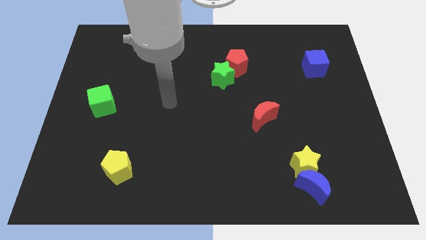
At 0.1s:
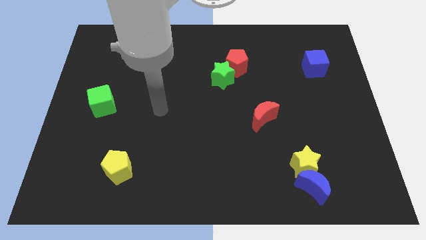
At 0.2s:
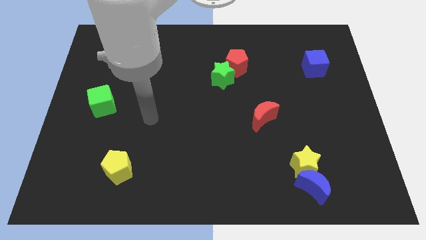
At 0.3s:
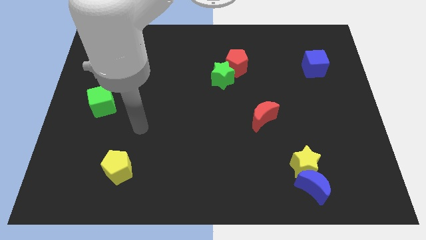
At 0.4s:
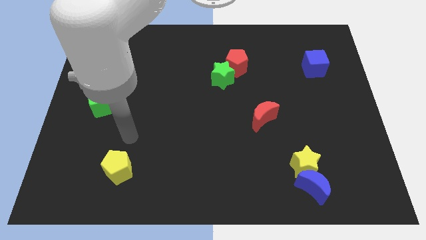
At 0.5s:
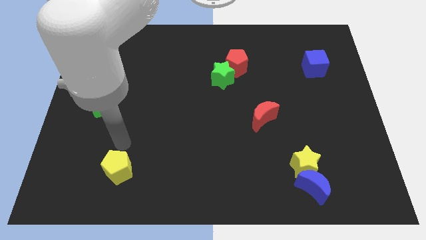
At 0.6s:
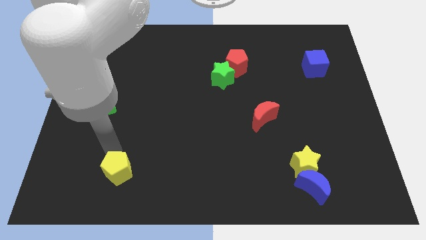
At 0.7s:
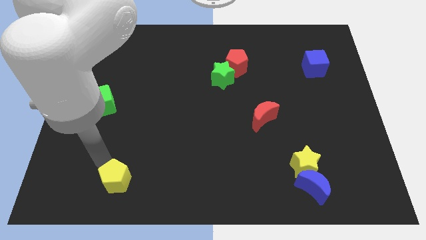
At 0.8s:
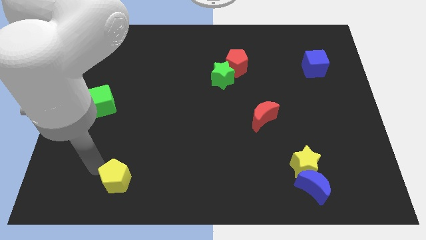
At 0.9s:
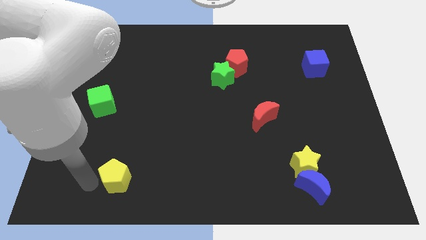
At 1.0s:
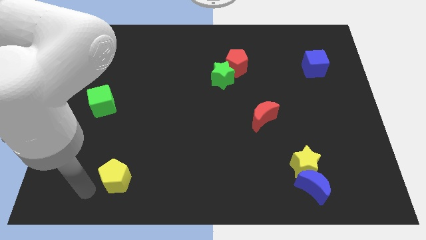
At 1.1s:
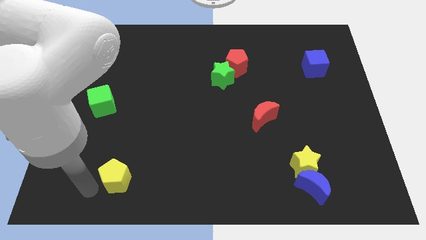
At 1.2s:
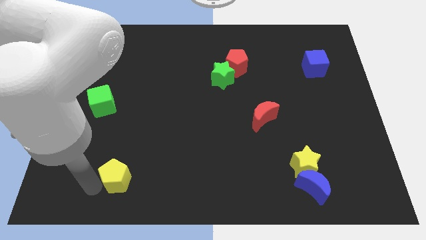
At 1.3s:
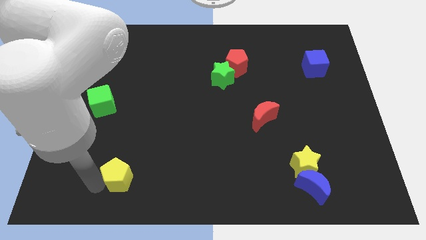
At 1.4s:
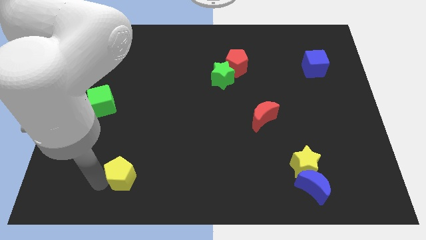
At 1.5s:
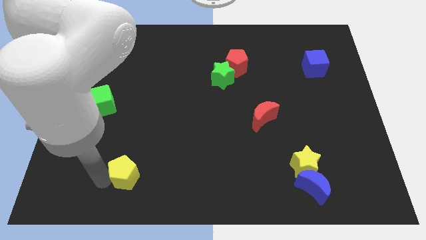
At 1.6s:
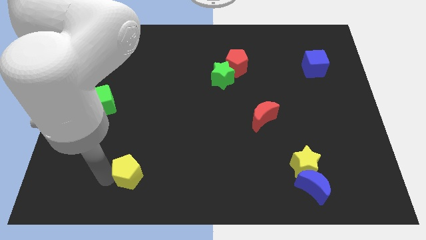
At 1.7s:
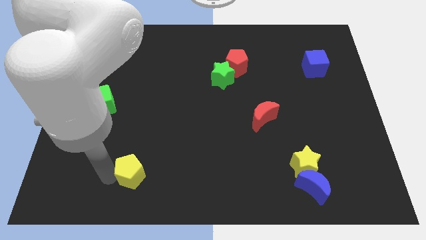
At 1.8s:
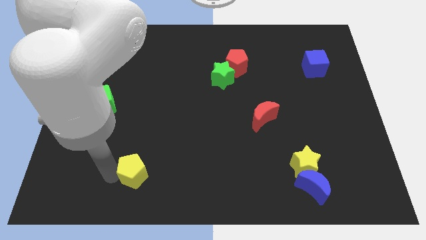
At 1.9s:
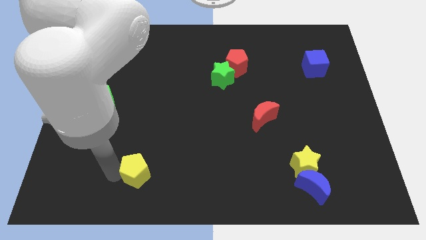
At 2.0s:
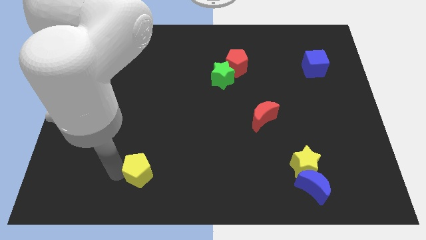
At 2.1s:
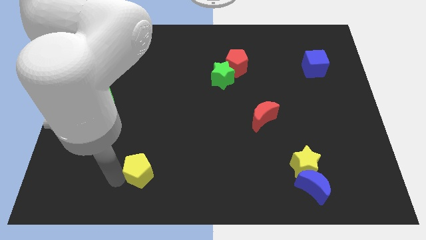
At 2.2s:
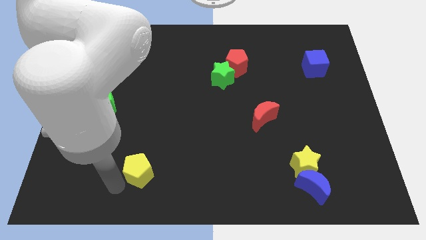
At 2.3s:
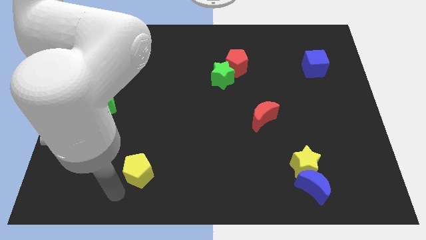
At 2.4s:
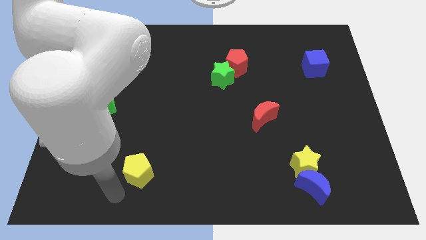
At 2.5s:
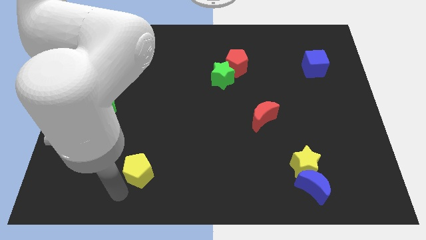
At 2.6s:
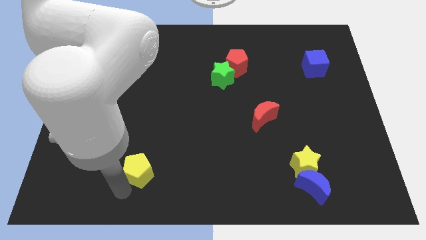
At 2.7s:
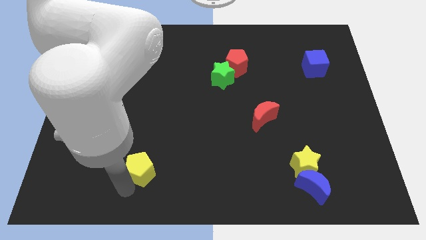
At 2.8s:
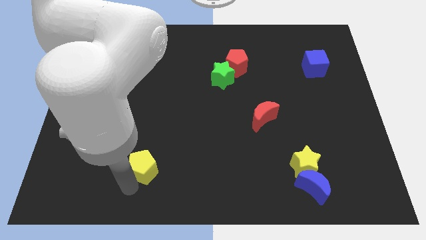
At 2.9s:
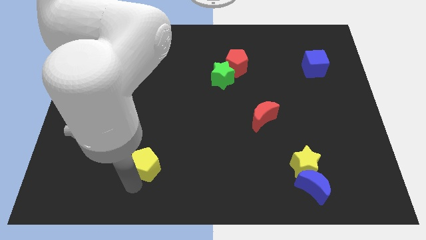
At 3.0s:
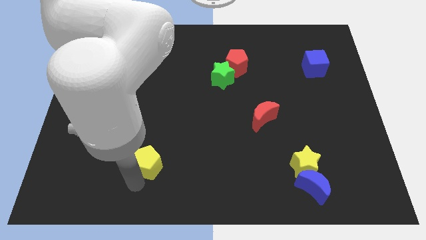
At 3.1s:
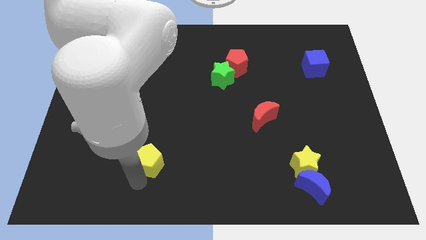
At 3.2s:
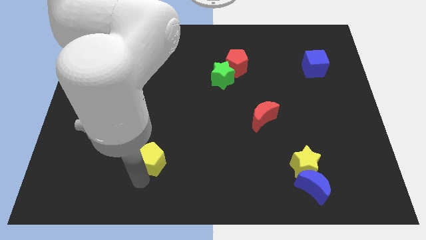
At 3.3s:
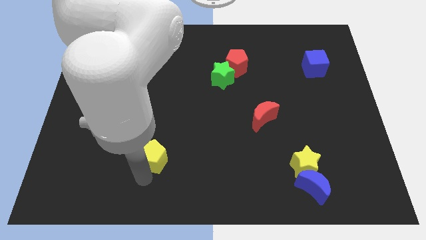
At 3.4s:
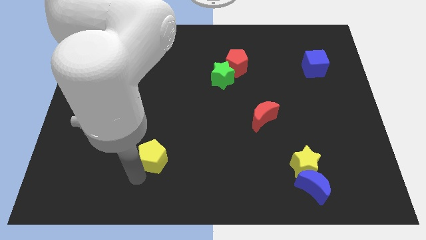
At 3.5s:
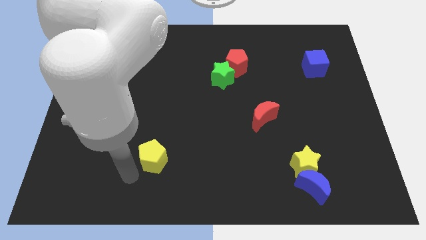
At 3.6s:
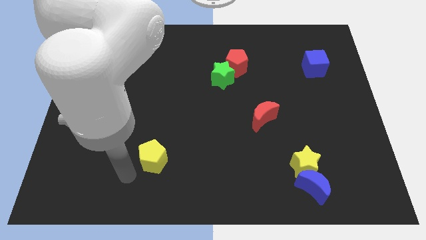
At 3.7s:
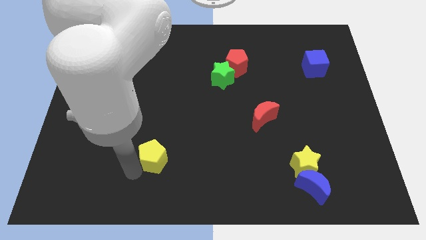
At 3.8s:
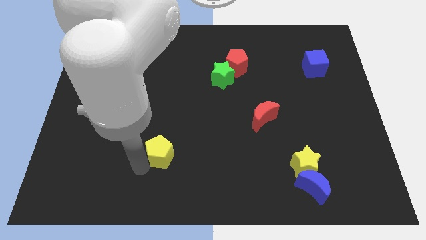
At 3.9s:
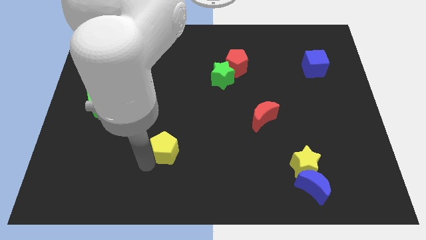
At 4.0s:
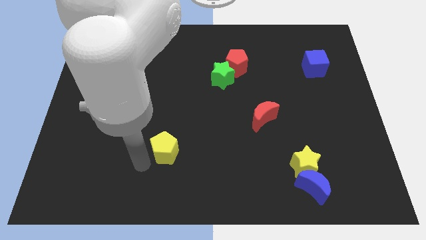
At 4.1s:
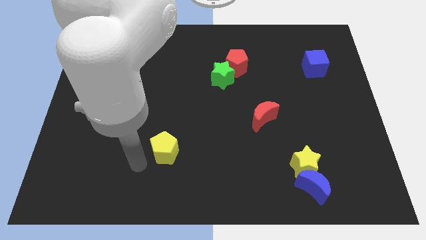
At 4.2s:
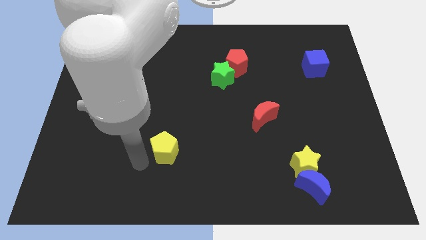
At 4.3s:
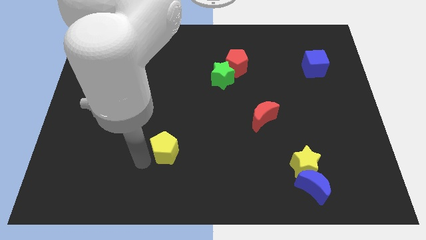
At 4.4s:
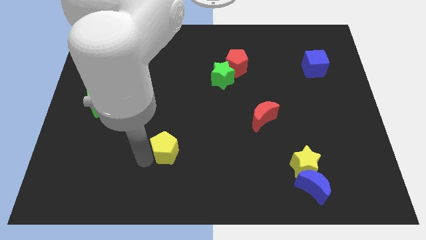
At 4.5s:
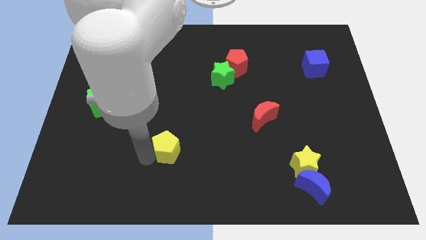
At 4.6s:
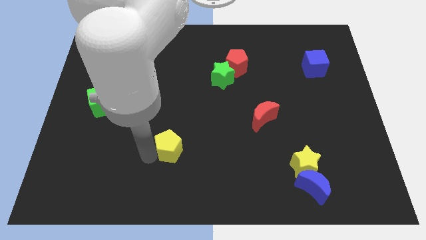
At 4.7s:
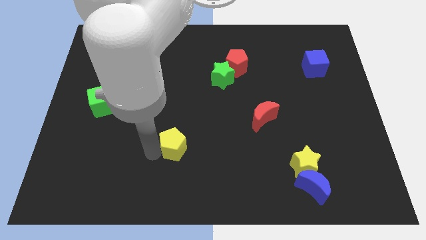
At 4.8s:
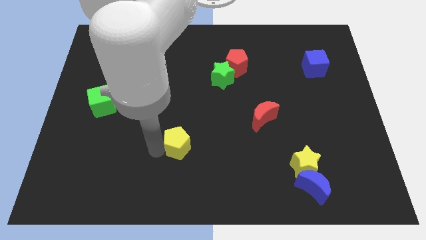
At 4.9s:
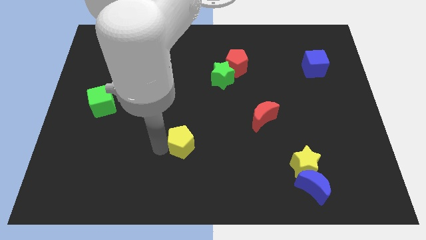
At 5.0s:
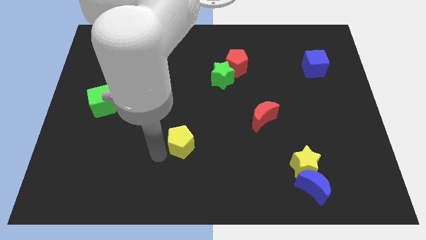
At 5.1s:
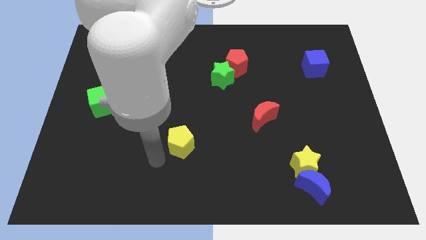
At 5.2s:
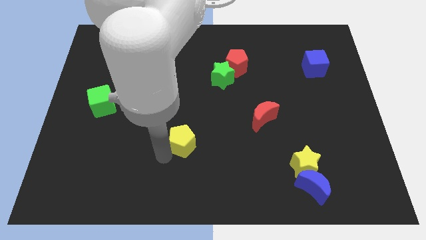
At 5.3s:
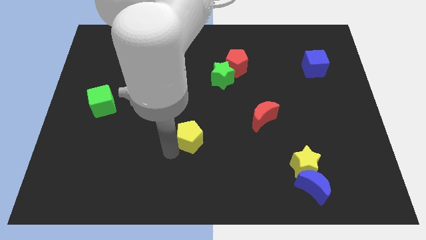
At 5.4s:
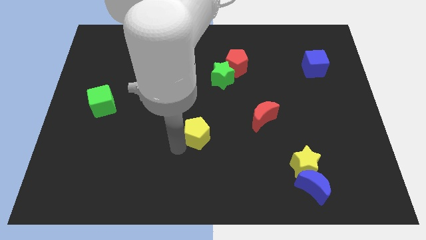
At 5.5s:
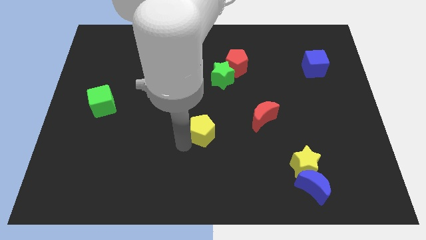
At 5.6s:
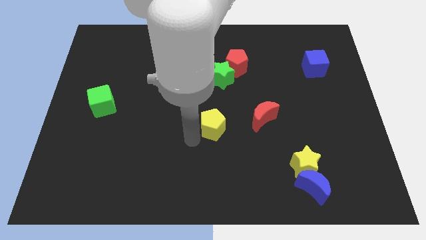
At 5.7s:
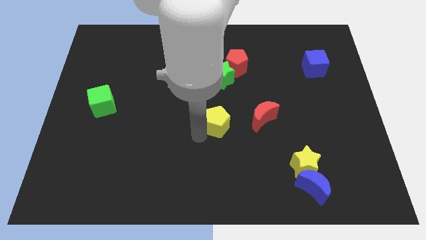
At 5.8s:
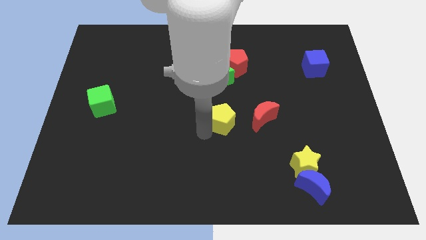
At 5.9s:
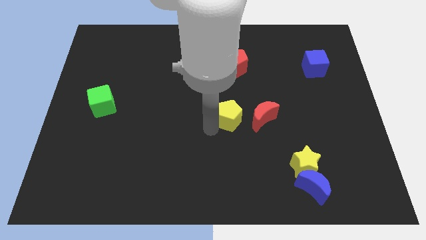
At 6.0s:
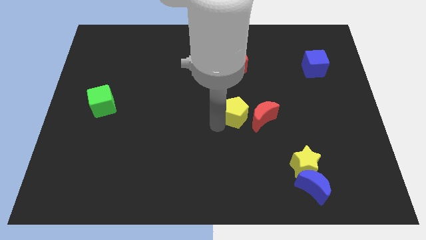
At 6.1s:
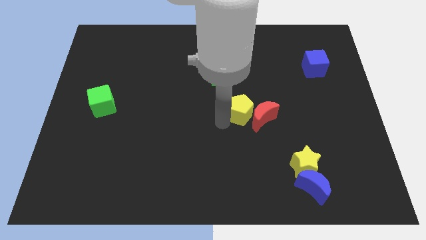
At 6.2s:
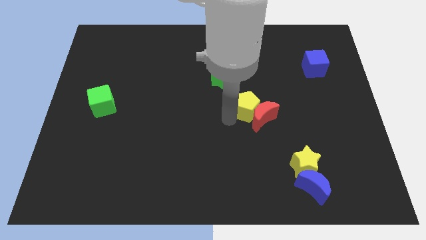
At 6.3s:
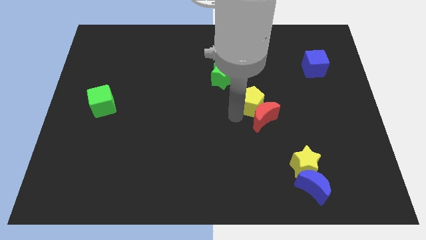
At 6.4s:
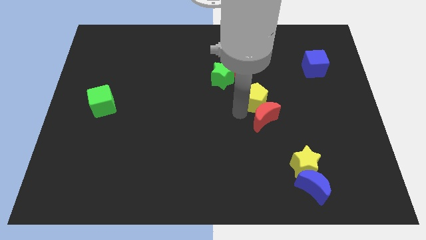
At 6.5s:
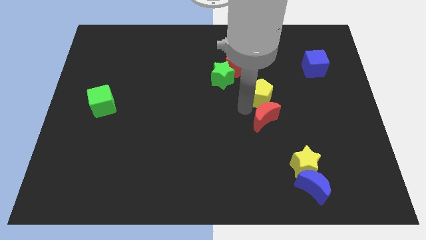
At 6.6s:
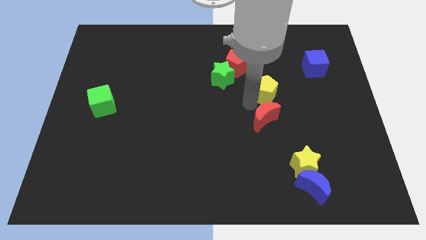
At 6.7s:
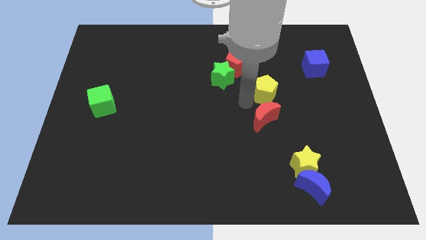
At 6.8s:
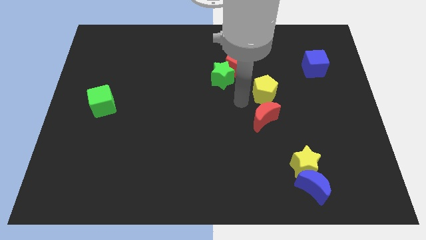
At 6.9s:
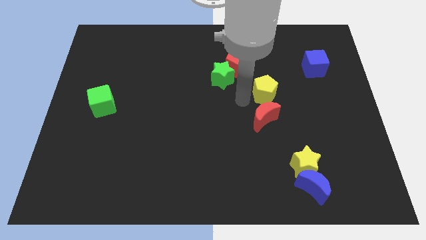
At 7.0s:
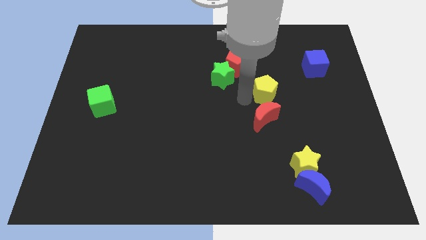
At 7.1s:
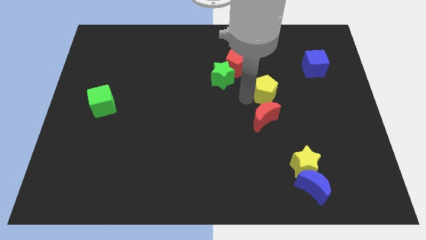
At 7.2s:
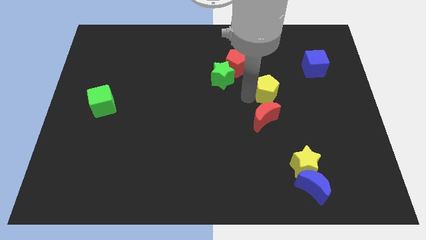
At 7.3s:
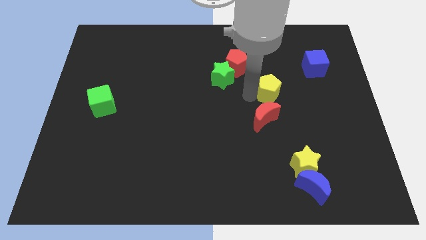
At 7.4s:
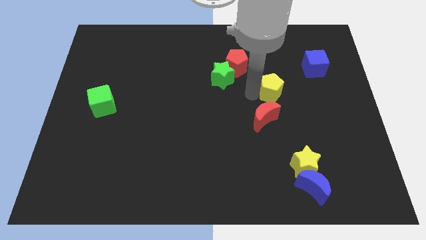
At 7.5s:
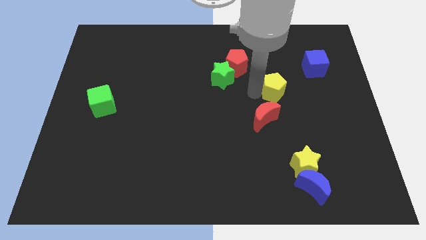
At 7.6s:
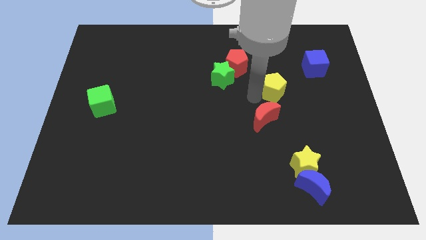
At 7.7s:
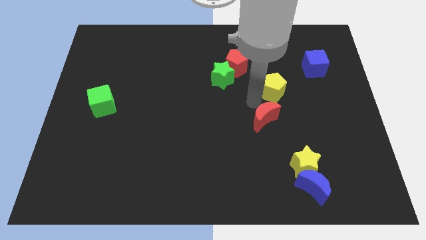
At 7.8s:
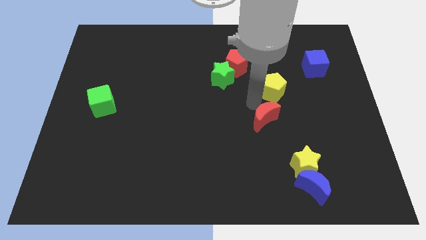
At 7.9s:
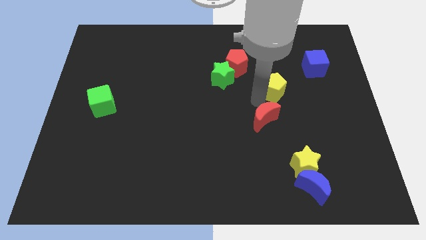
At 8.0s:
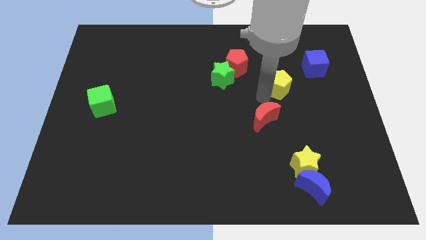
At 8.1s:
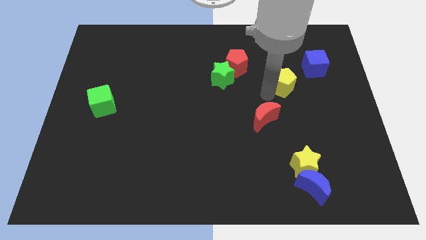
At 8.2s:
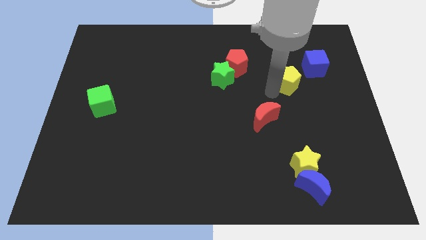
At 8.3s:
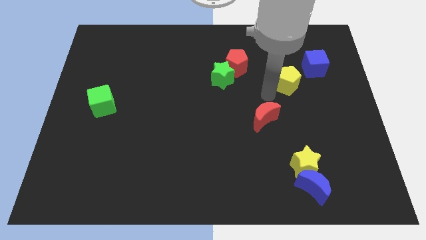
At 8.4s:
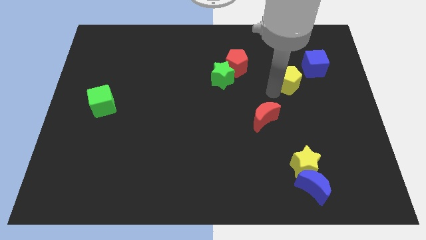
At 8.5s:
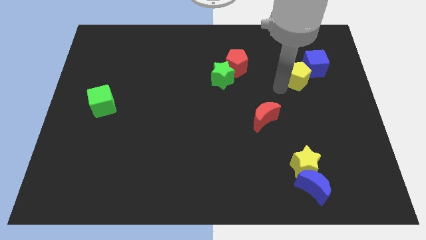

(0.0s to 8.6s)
move the yellow pentagon towards the blue cube
